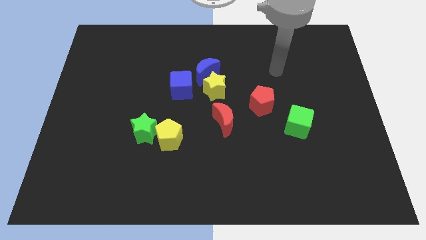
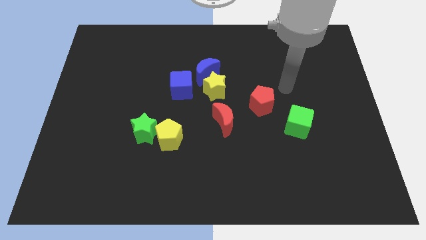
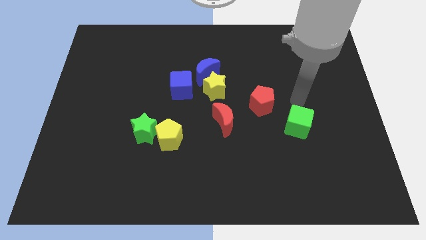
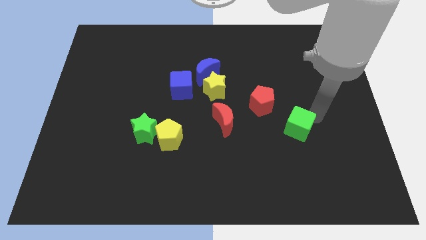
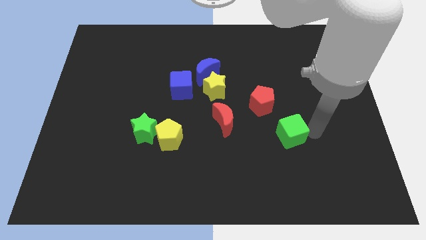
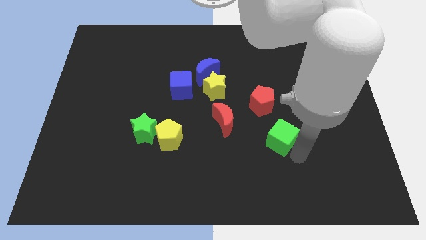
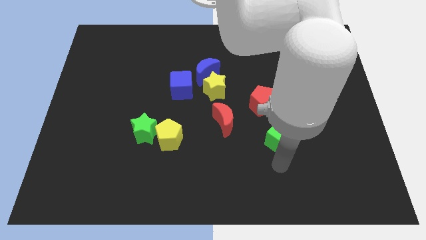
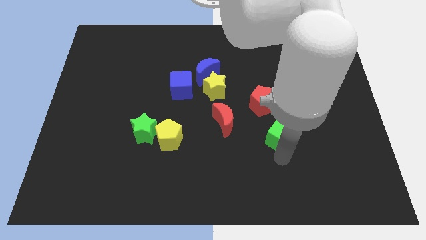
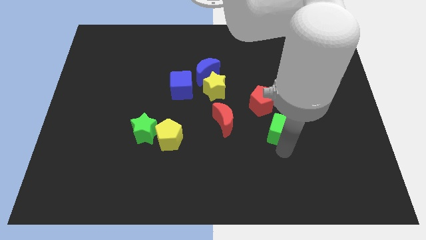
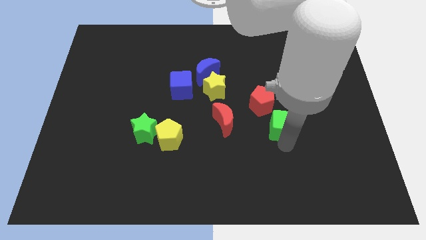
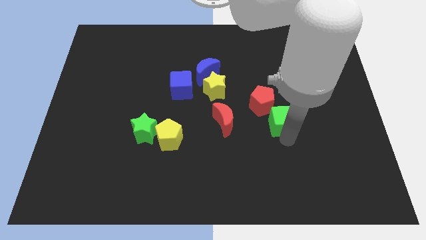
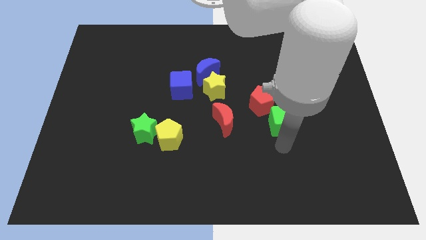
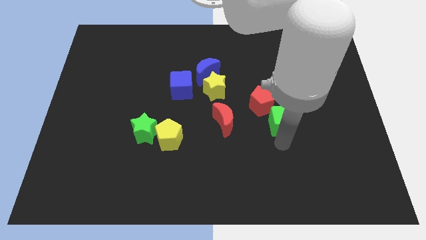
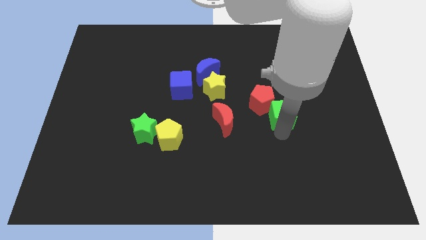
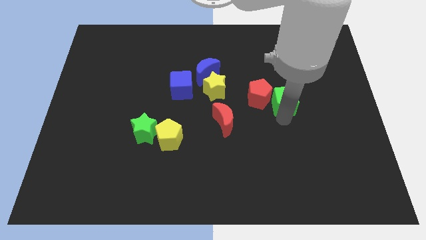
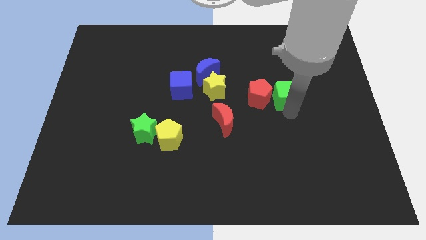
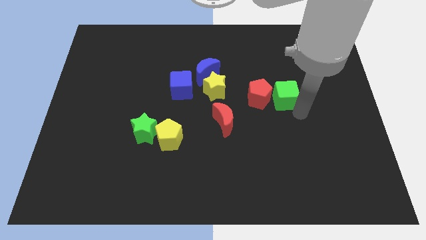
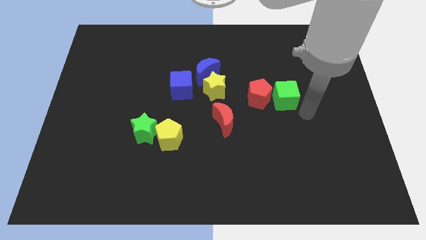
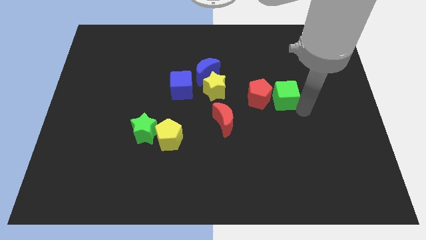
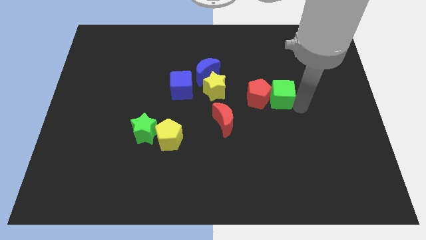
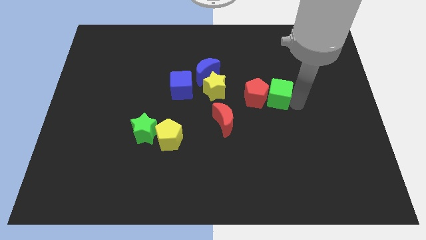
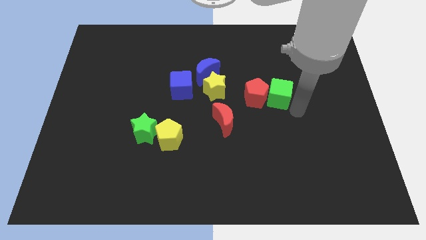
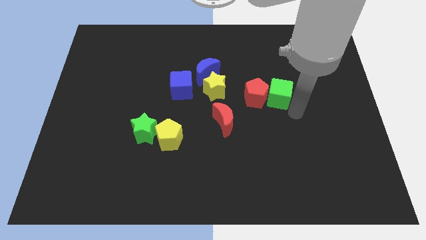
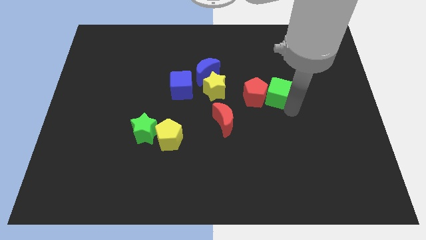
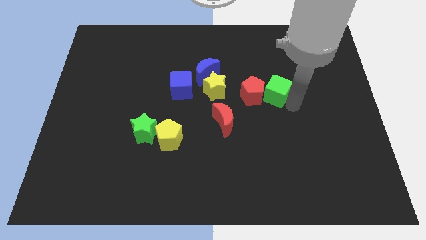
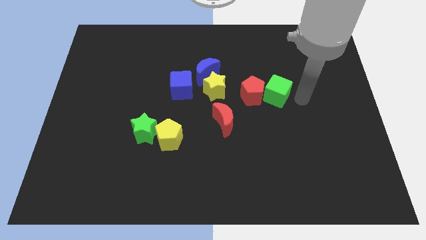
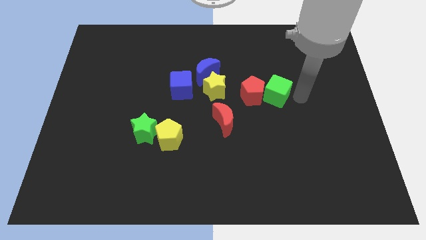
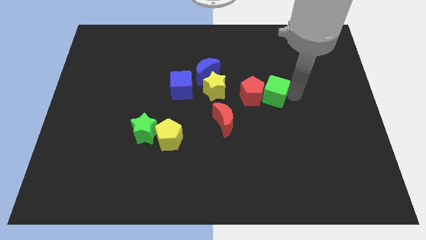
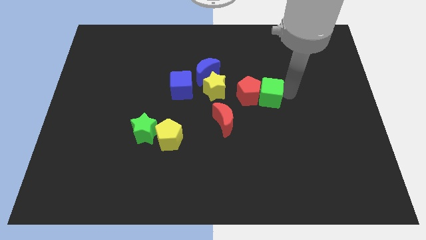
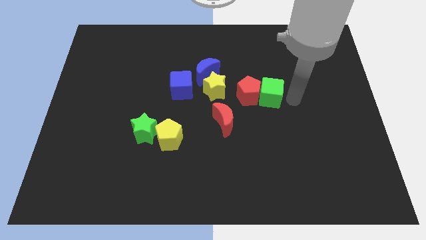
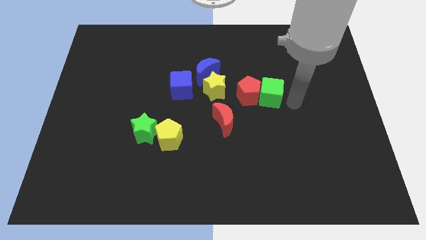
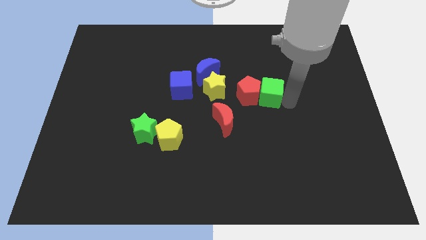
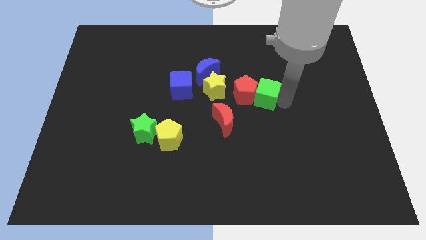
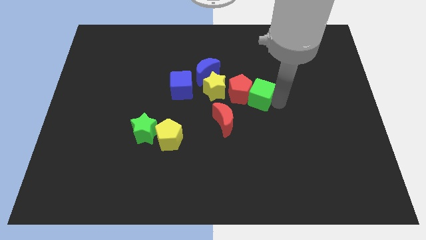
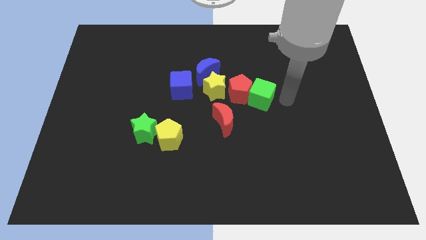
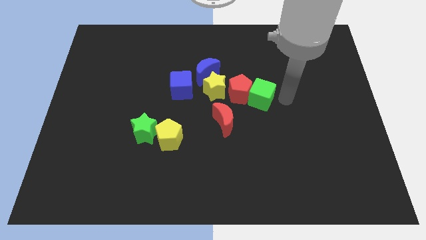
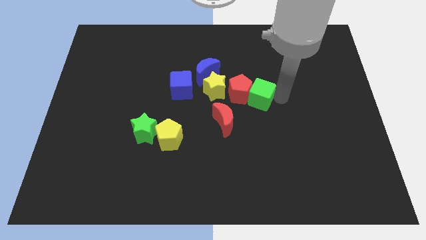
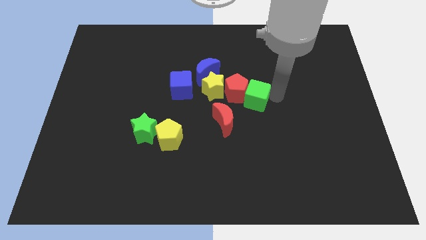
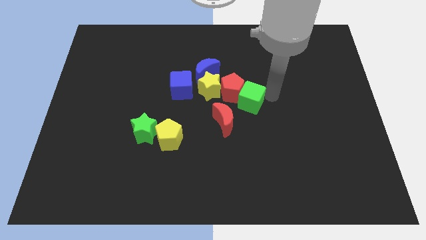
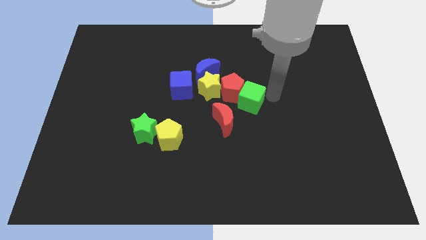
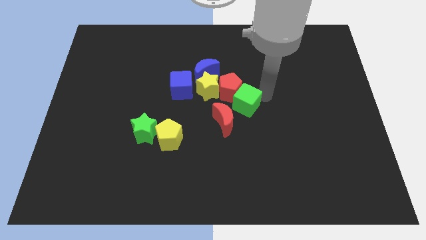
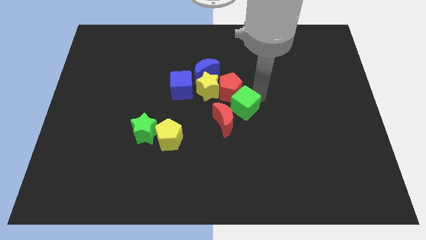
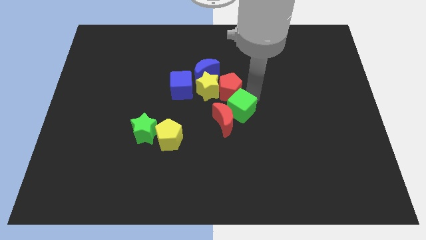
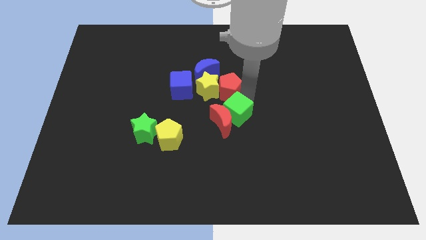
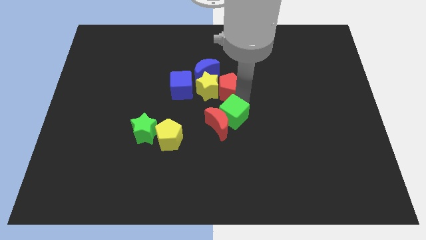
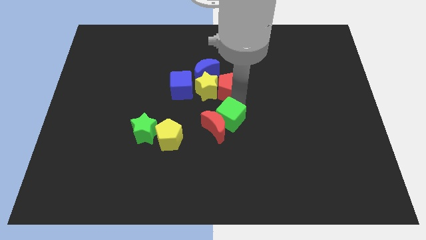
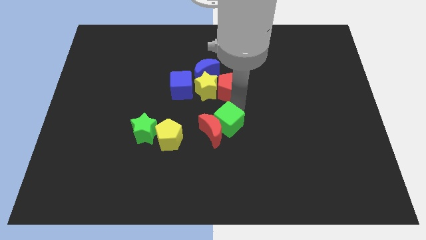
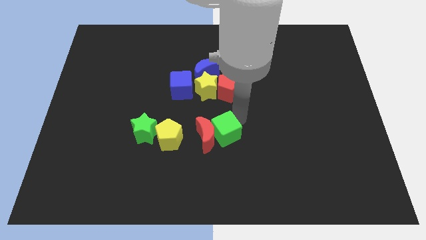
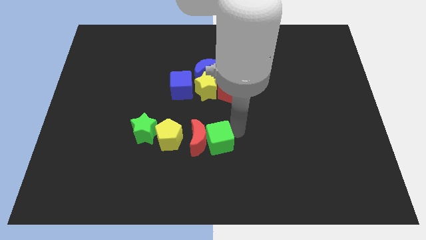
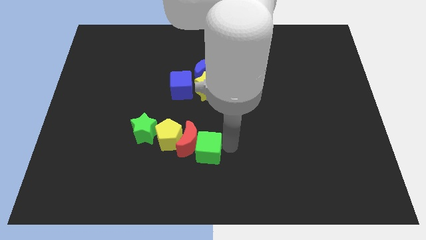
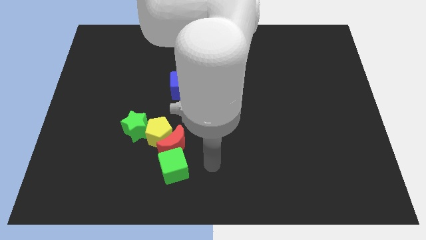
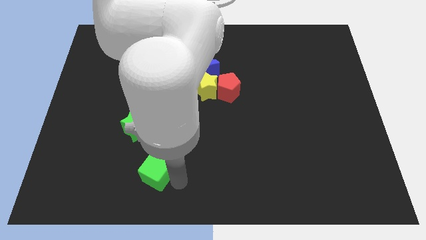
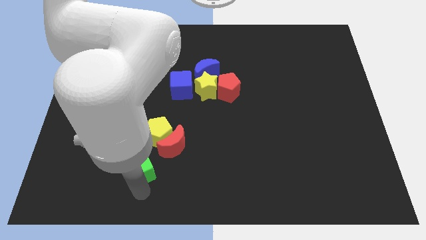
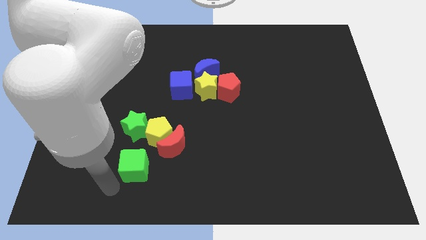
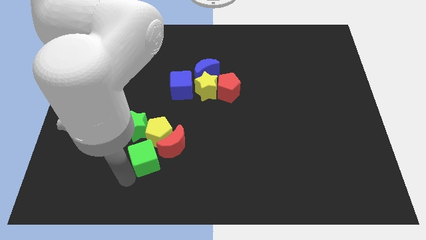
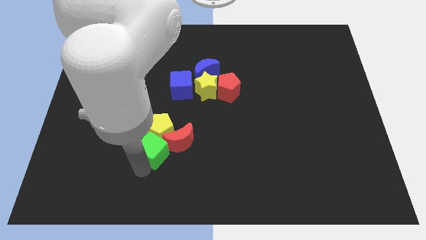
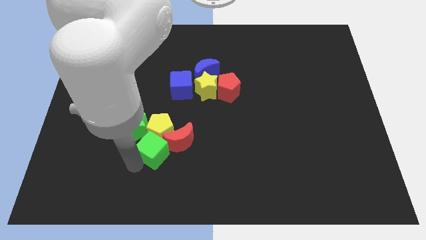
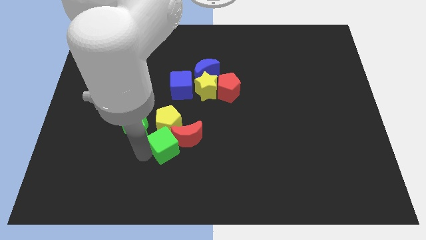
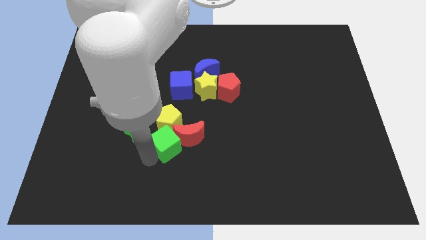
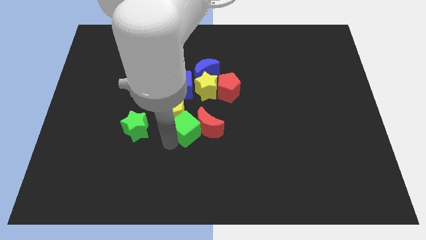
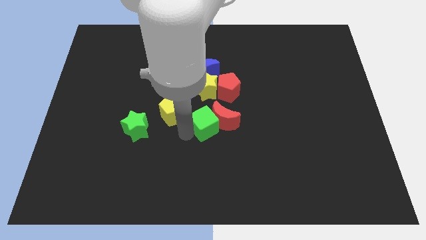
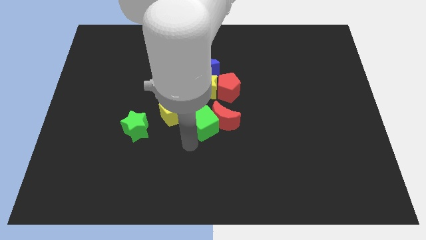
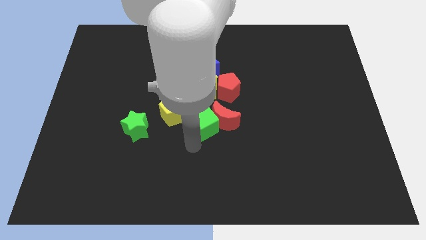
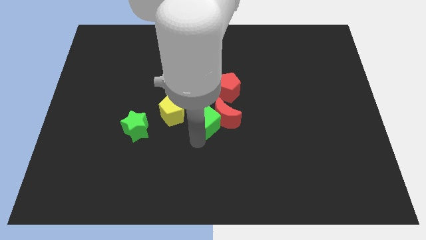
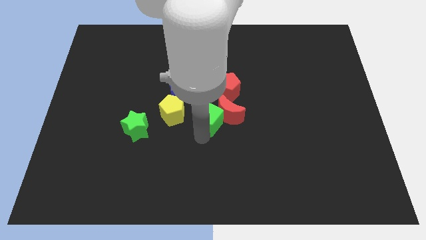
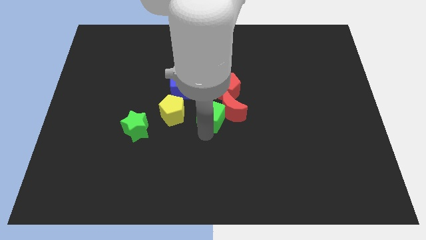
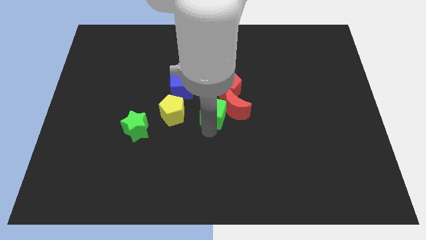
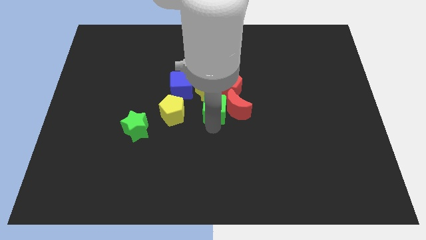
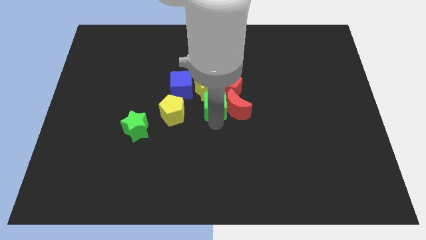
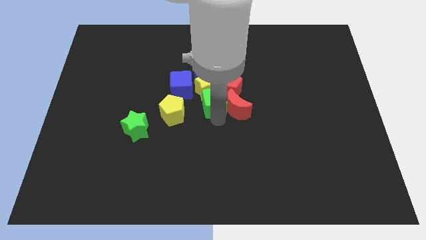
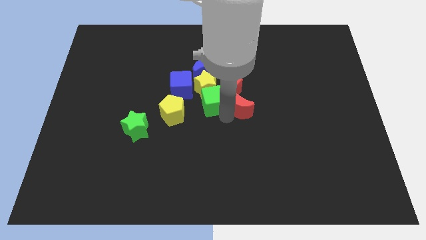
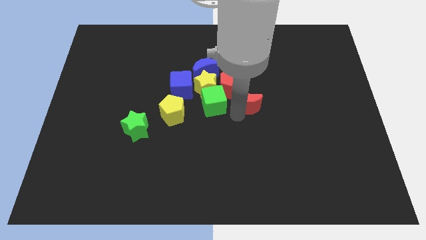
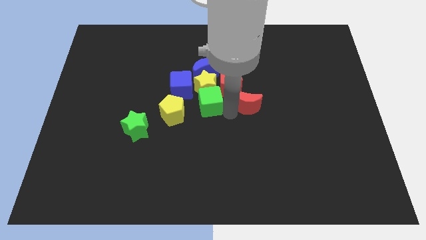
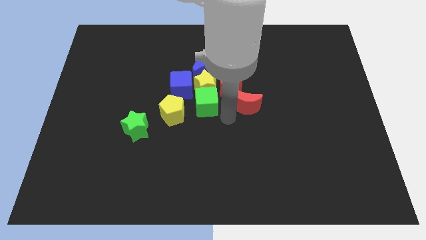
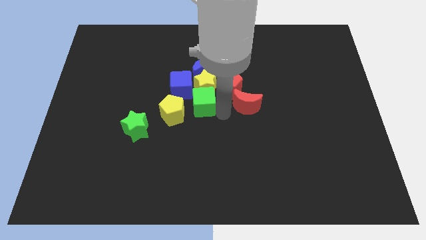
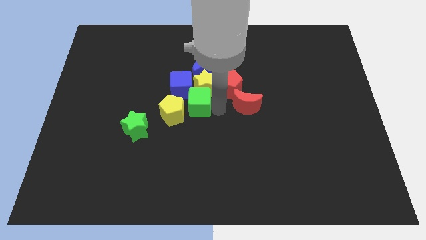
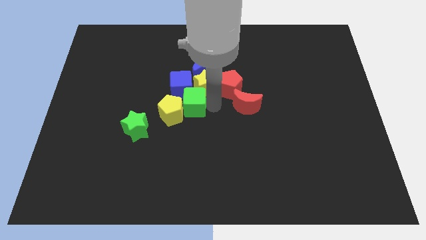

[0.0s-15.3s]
slide the green cube close to the blue cube
